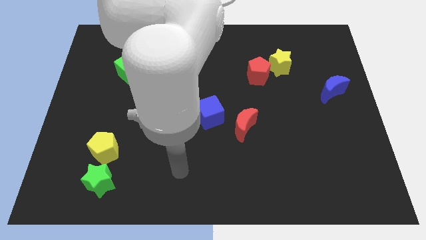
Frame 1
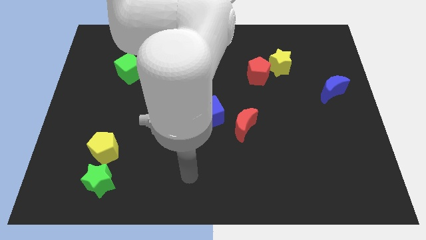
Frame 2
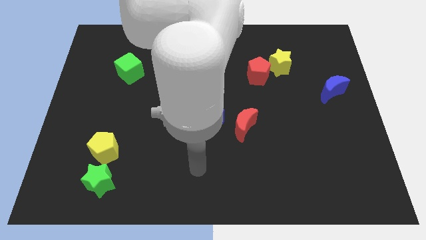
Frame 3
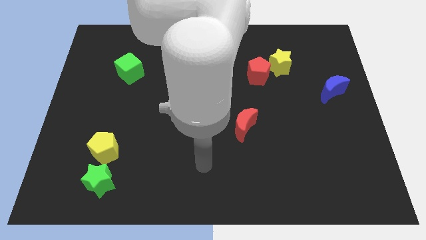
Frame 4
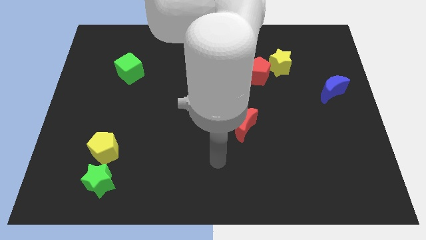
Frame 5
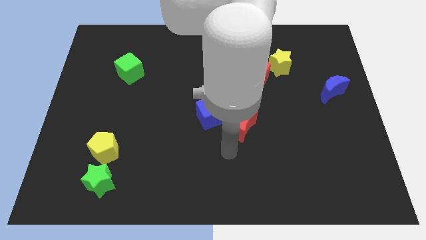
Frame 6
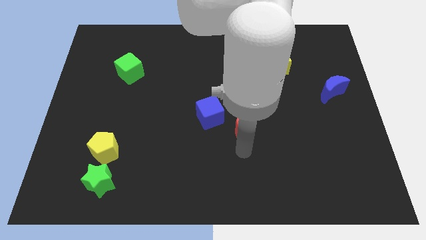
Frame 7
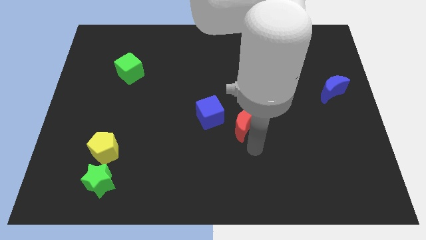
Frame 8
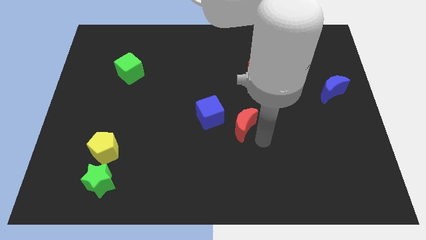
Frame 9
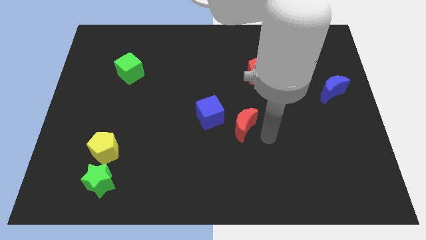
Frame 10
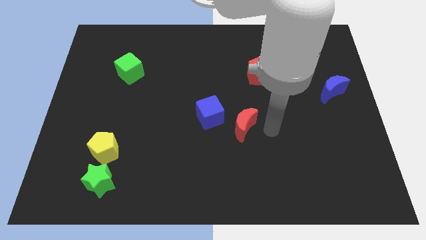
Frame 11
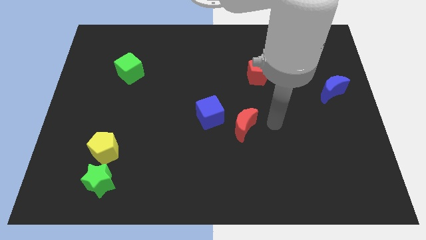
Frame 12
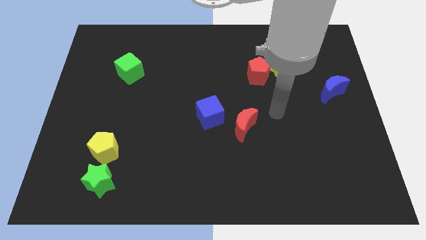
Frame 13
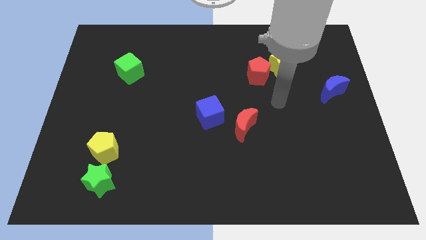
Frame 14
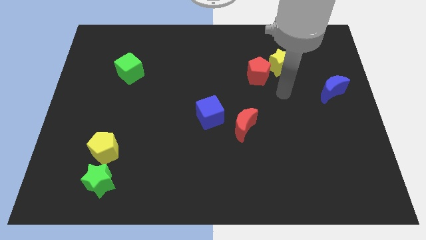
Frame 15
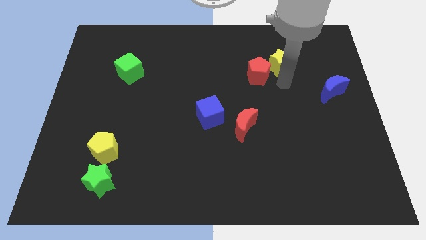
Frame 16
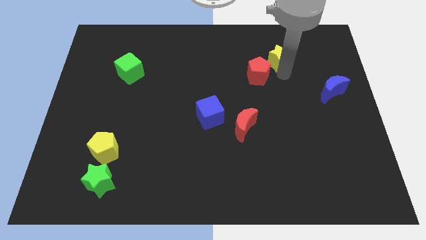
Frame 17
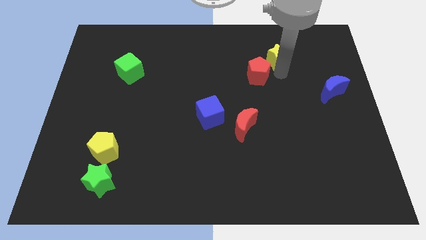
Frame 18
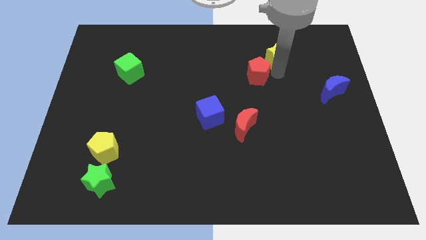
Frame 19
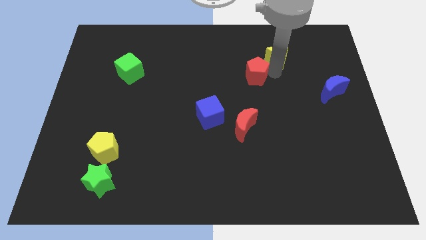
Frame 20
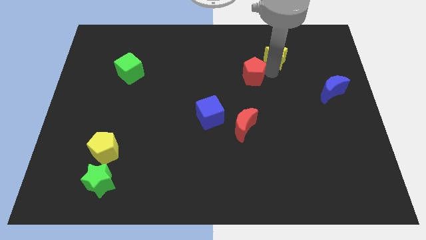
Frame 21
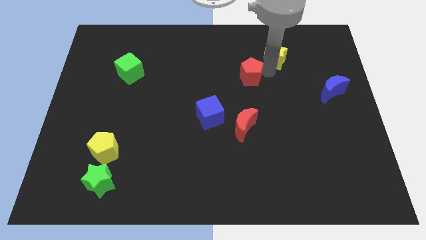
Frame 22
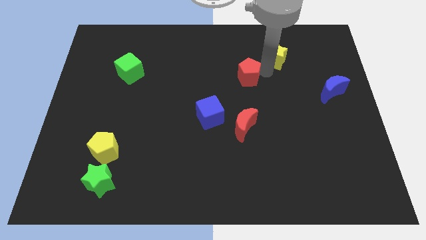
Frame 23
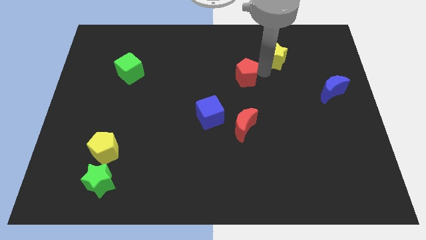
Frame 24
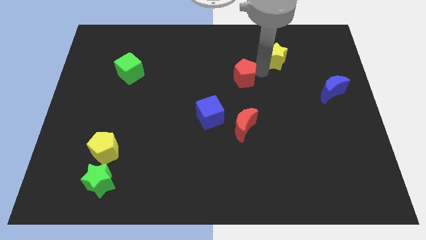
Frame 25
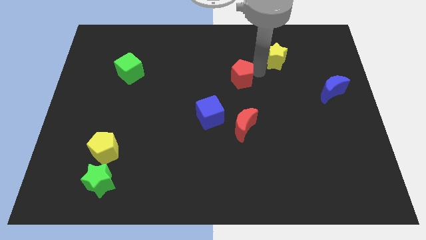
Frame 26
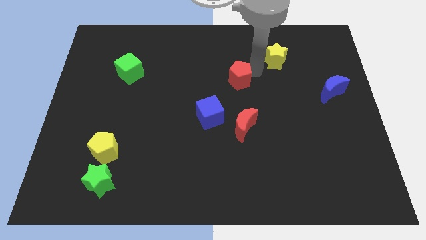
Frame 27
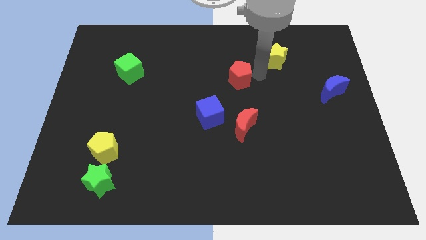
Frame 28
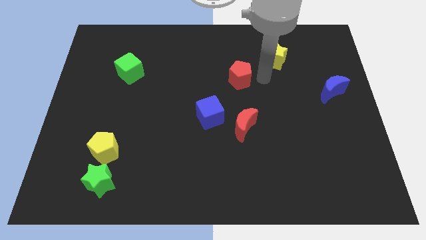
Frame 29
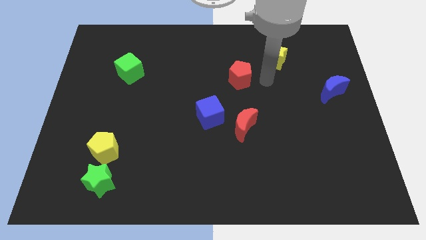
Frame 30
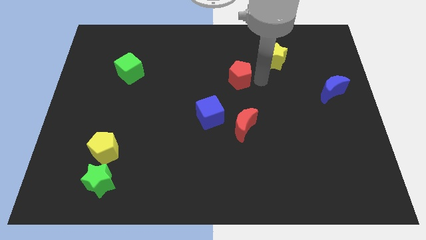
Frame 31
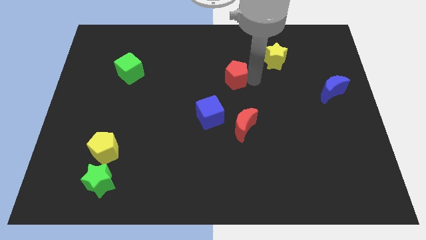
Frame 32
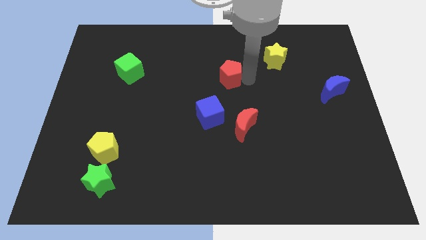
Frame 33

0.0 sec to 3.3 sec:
push the red pentagon a little bit left

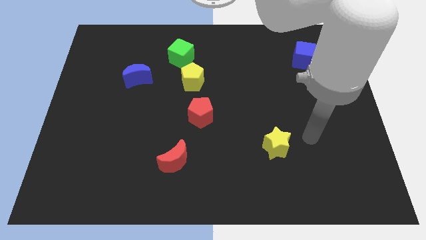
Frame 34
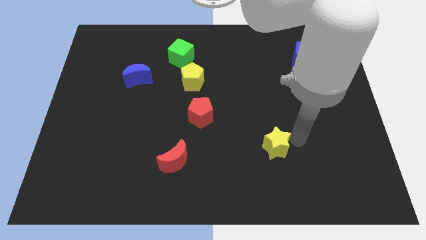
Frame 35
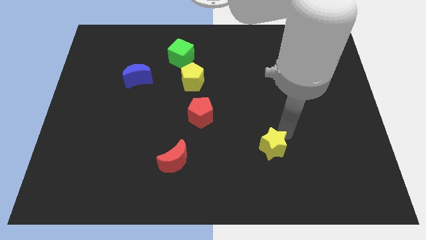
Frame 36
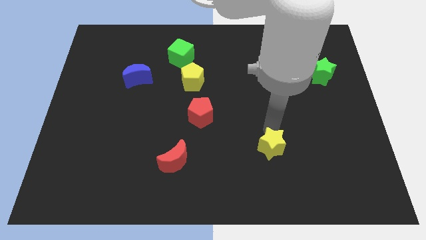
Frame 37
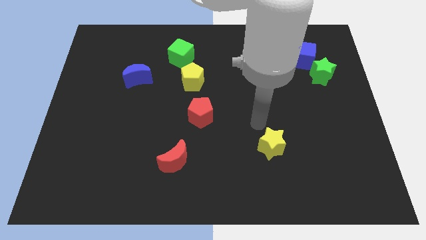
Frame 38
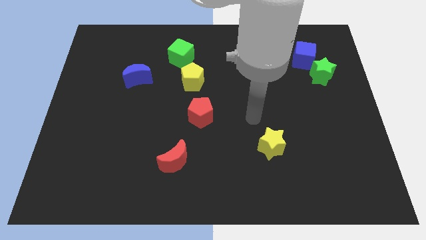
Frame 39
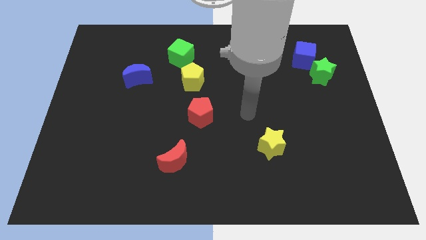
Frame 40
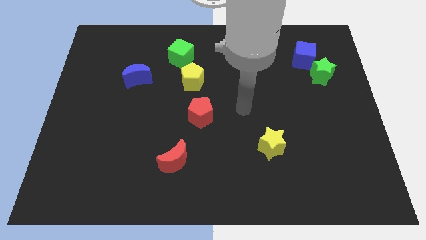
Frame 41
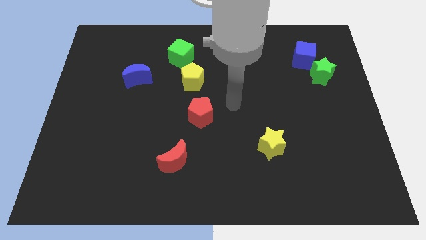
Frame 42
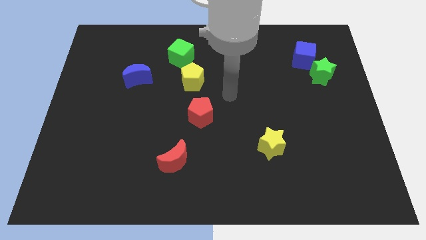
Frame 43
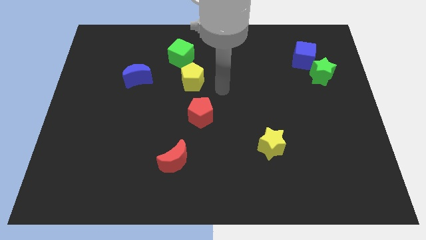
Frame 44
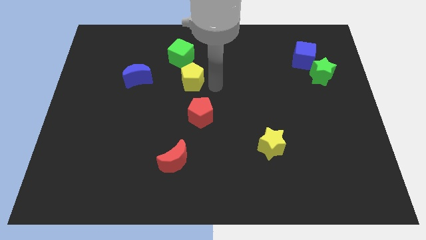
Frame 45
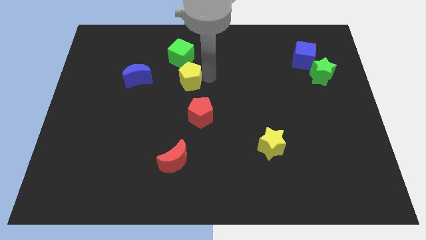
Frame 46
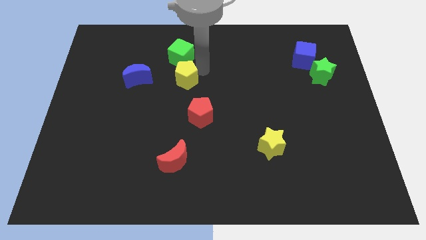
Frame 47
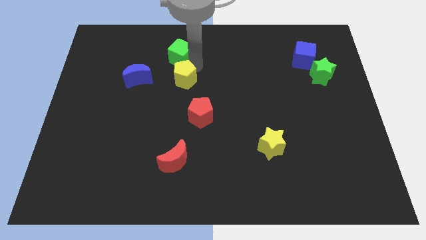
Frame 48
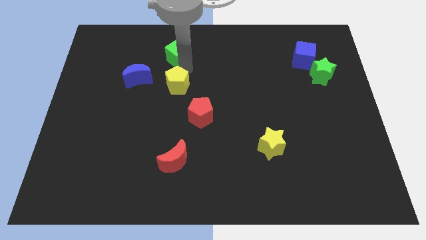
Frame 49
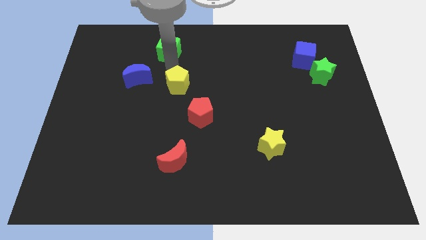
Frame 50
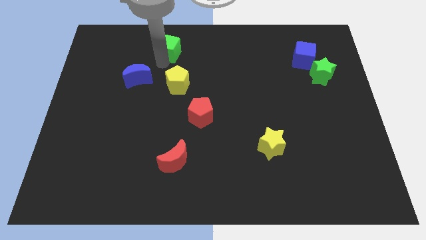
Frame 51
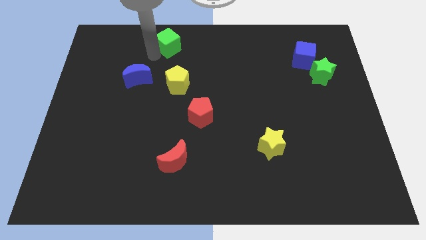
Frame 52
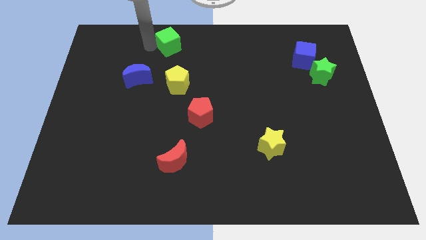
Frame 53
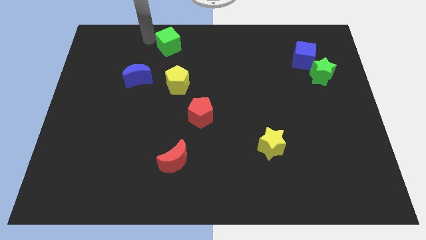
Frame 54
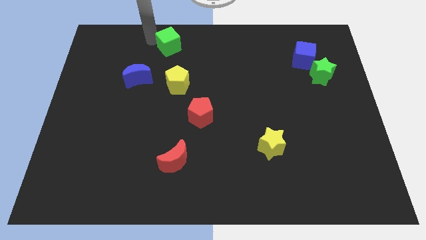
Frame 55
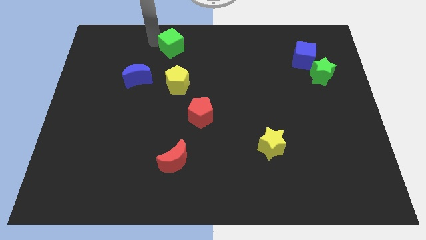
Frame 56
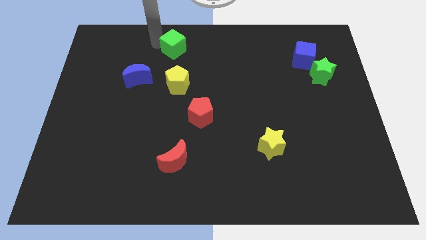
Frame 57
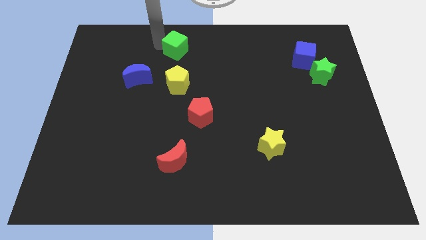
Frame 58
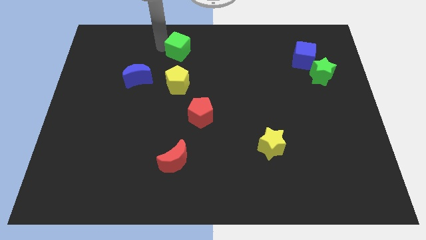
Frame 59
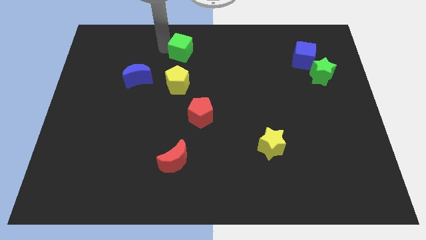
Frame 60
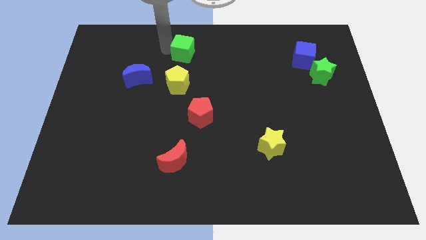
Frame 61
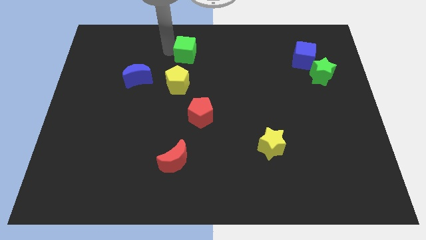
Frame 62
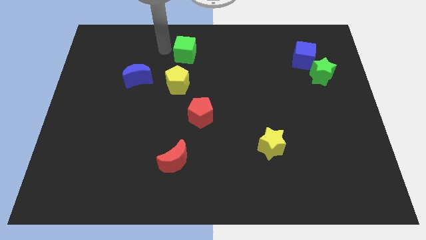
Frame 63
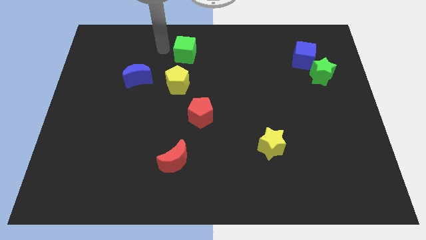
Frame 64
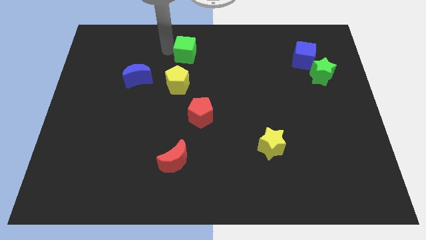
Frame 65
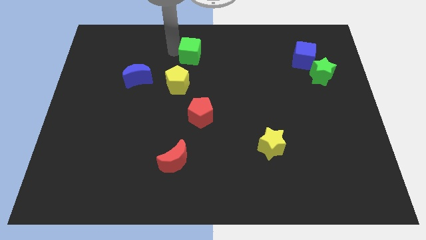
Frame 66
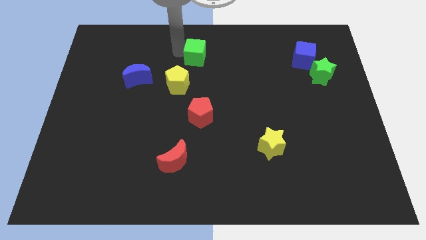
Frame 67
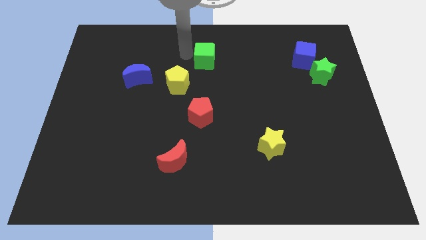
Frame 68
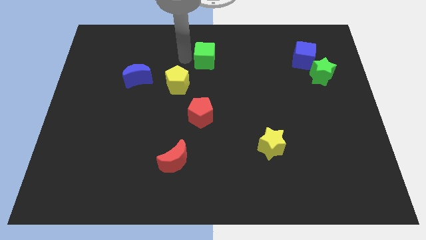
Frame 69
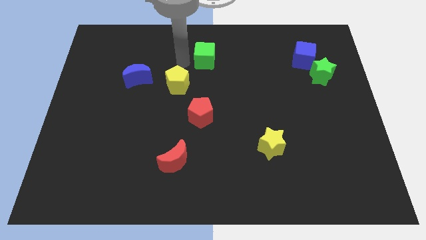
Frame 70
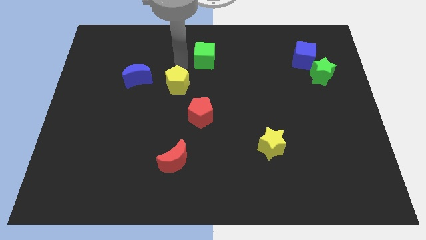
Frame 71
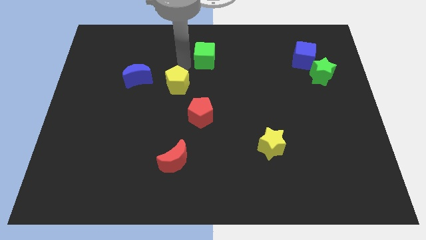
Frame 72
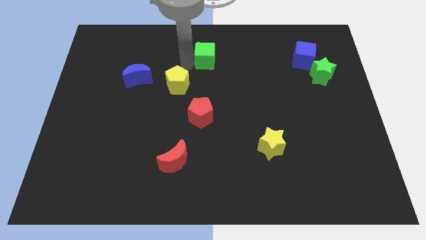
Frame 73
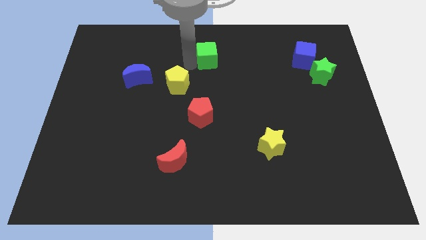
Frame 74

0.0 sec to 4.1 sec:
move the green cube right a bit

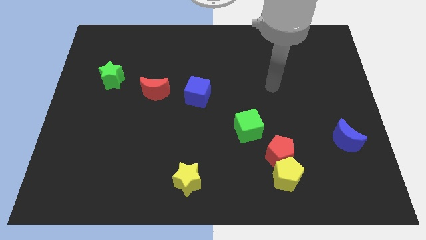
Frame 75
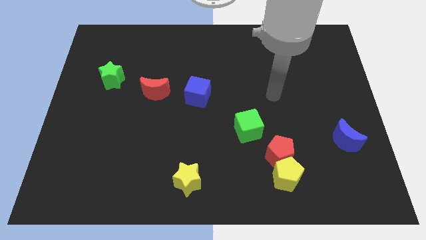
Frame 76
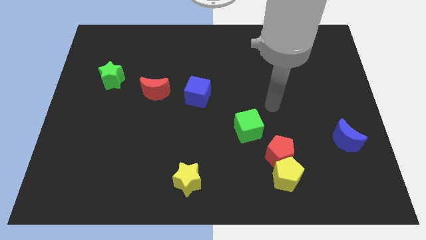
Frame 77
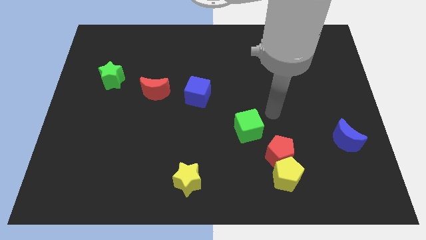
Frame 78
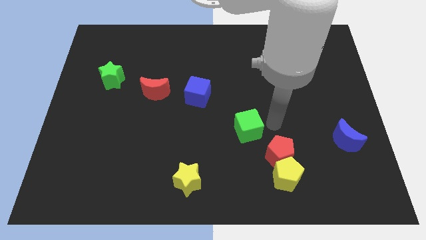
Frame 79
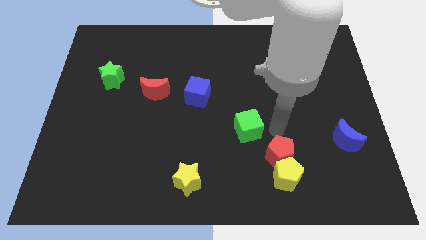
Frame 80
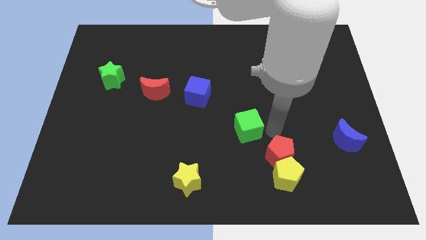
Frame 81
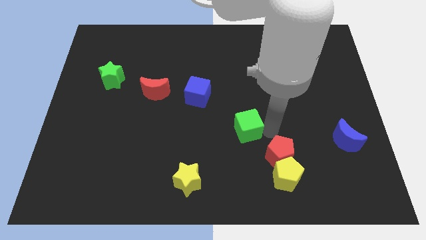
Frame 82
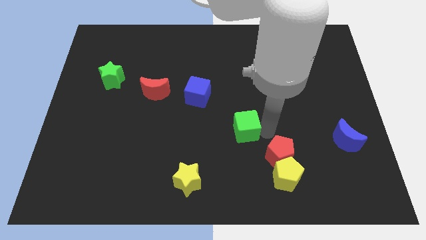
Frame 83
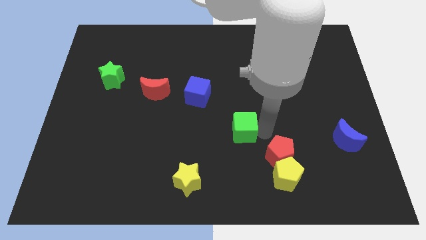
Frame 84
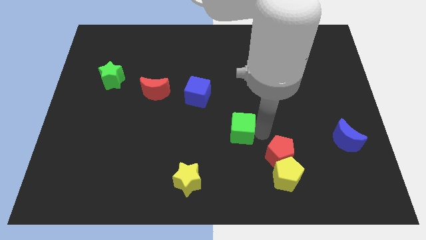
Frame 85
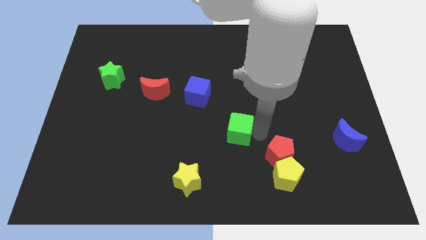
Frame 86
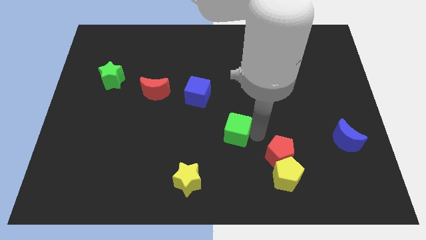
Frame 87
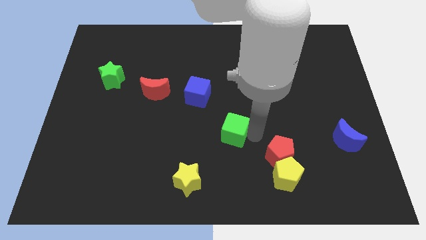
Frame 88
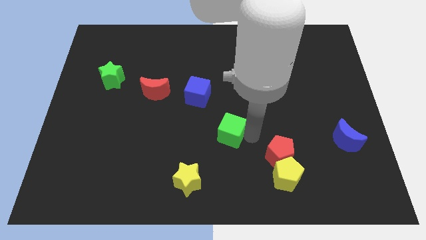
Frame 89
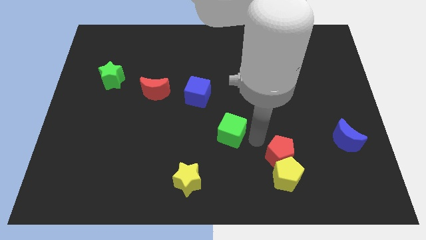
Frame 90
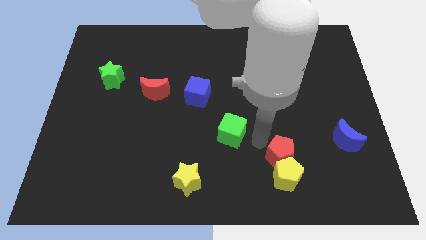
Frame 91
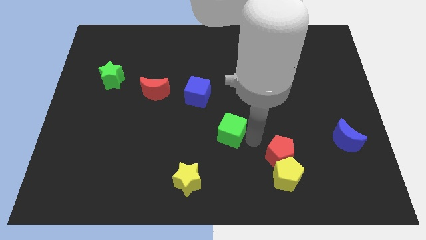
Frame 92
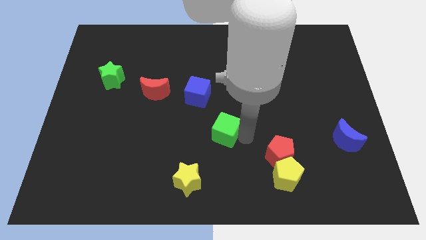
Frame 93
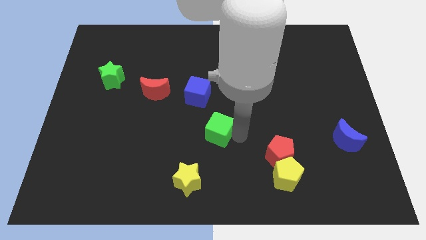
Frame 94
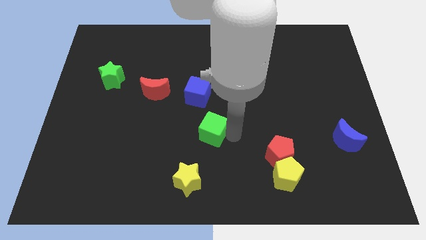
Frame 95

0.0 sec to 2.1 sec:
slightly move the green cube to the left
